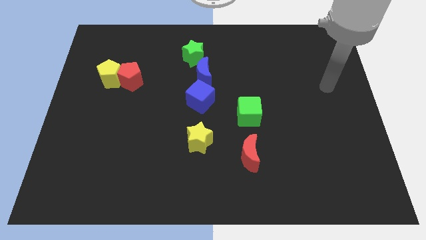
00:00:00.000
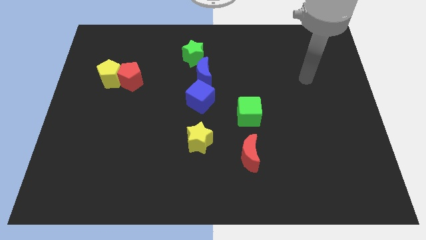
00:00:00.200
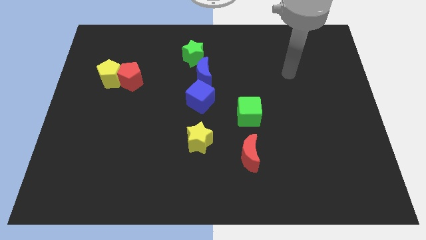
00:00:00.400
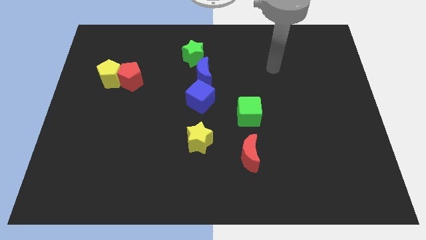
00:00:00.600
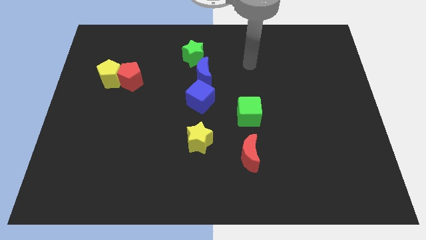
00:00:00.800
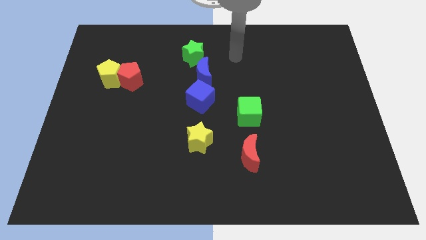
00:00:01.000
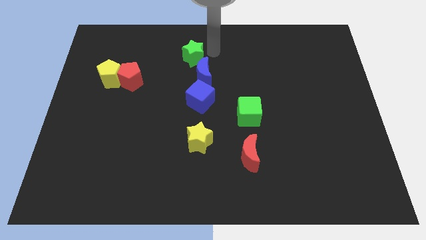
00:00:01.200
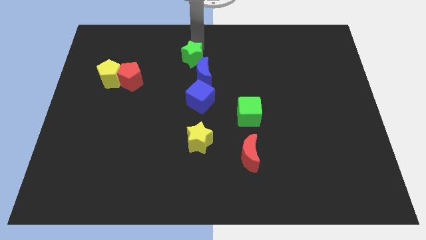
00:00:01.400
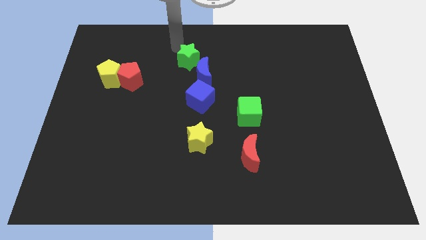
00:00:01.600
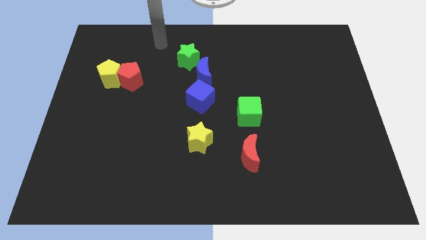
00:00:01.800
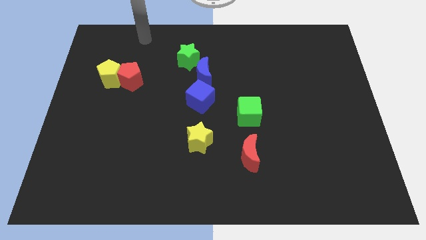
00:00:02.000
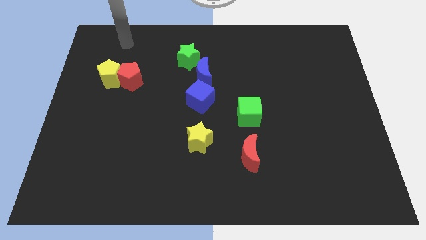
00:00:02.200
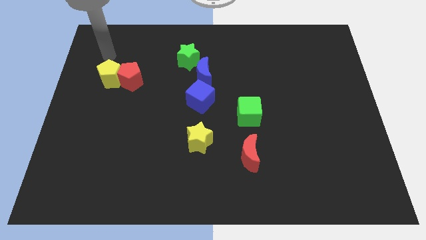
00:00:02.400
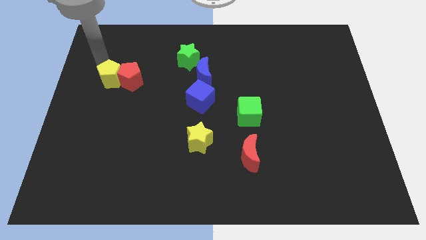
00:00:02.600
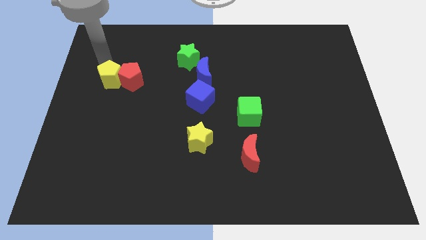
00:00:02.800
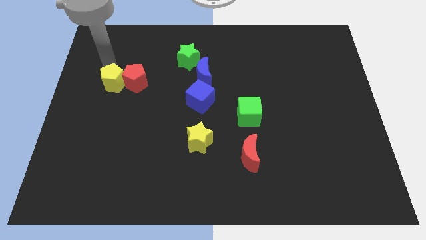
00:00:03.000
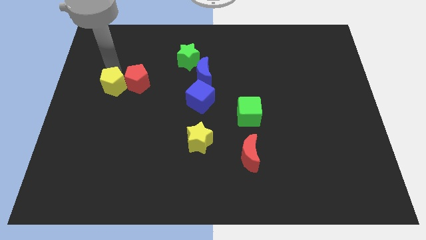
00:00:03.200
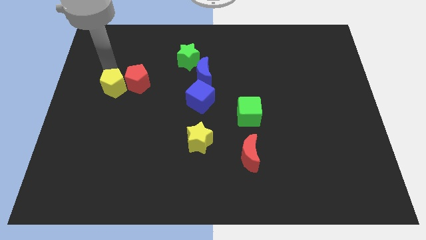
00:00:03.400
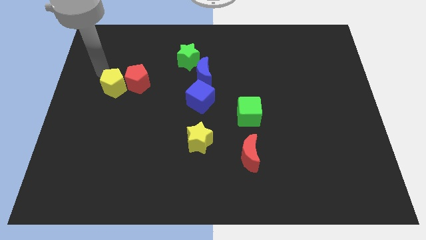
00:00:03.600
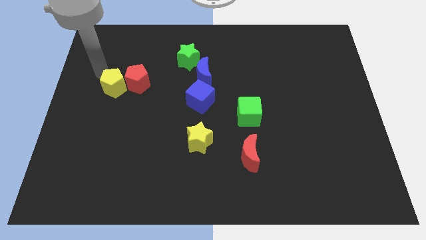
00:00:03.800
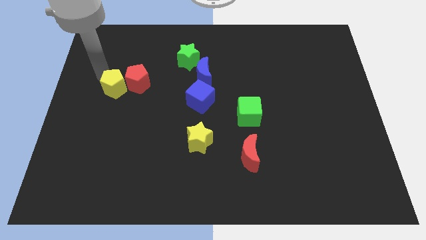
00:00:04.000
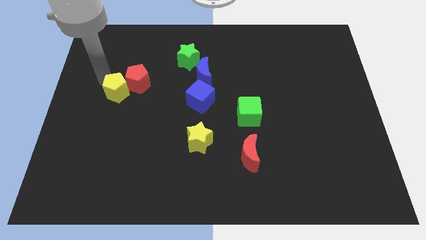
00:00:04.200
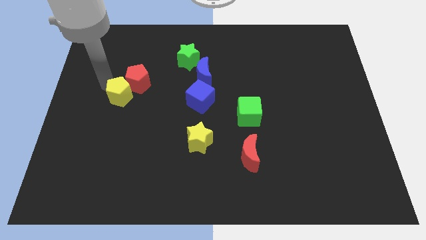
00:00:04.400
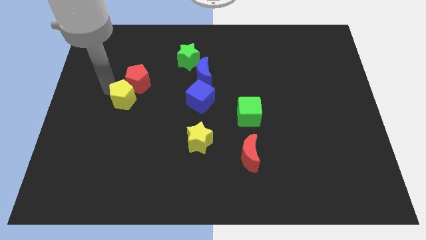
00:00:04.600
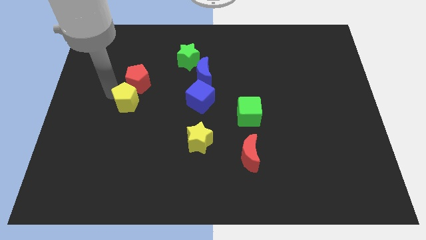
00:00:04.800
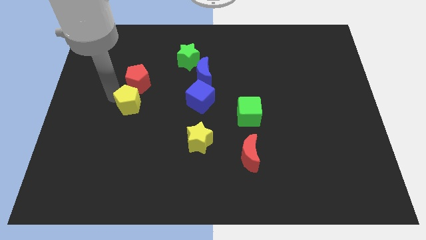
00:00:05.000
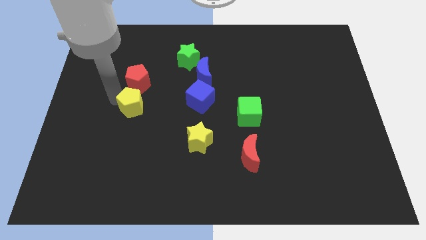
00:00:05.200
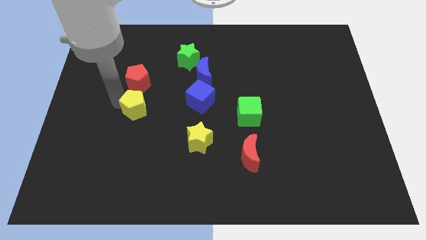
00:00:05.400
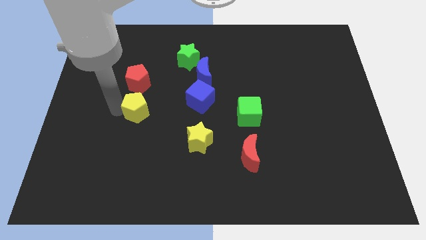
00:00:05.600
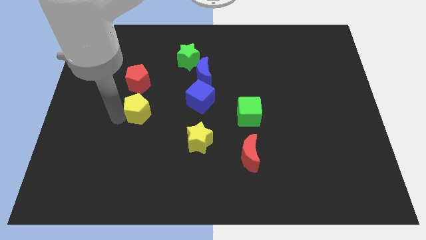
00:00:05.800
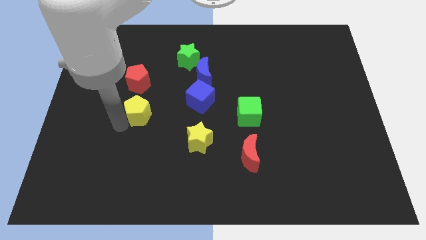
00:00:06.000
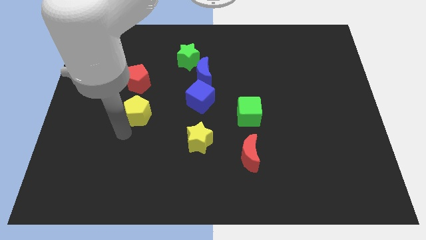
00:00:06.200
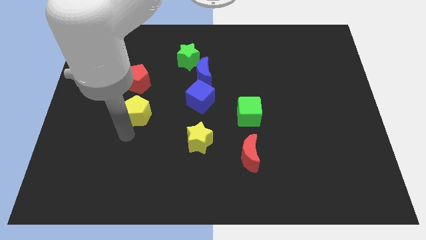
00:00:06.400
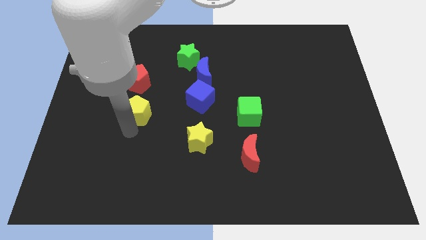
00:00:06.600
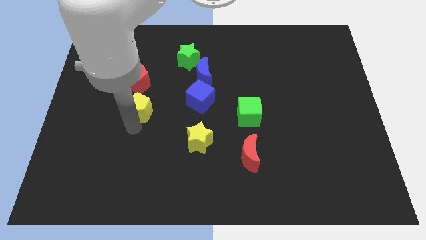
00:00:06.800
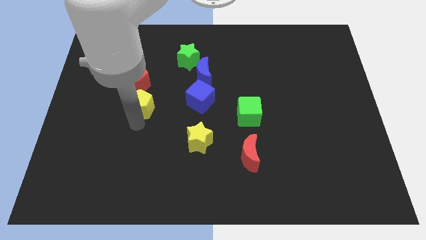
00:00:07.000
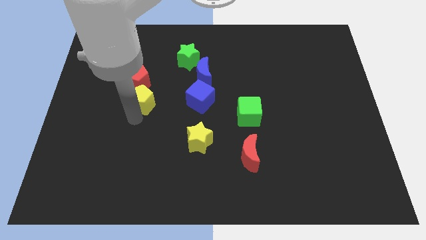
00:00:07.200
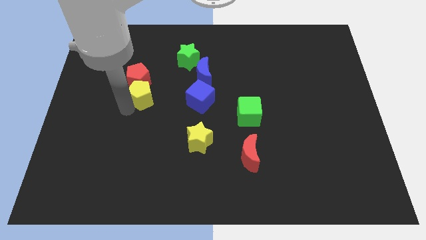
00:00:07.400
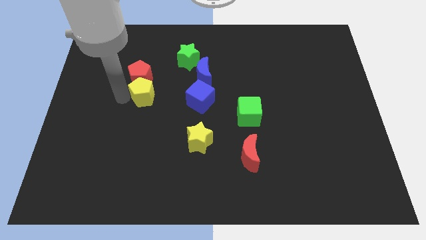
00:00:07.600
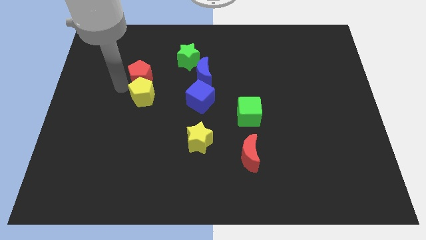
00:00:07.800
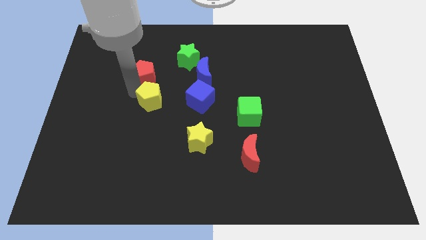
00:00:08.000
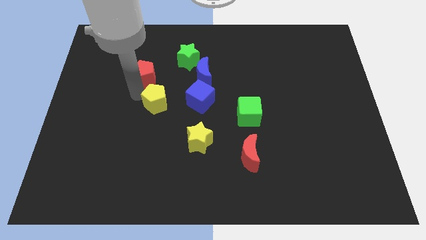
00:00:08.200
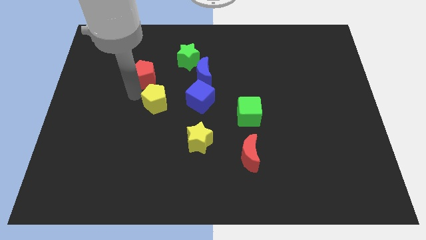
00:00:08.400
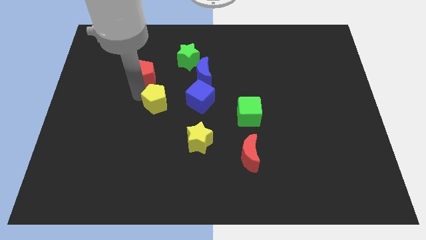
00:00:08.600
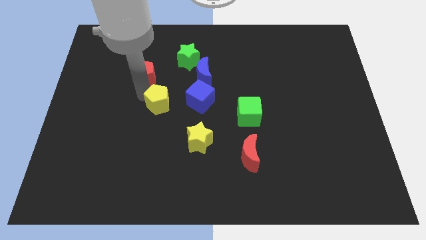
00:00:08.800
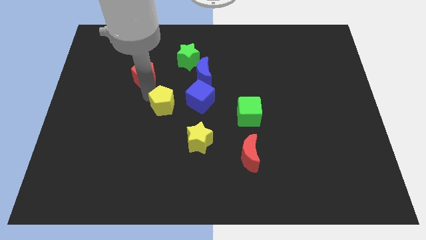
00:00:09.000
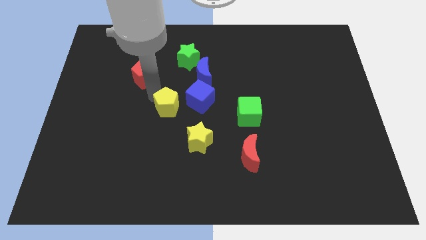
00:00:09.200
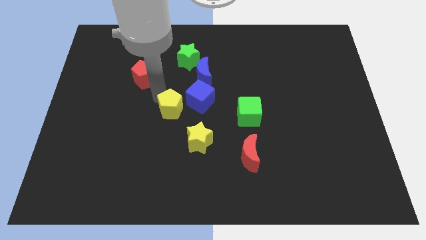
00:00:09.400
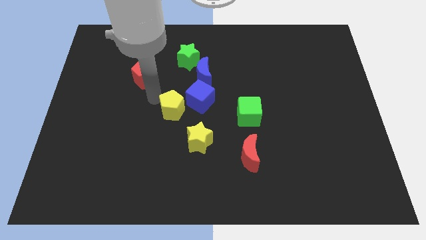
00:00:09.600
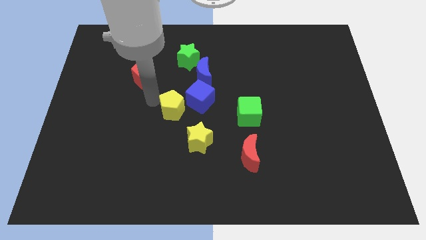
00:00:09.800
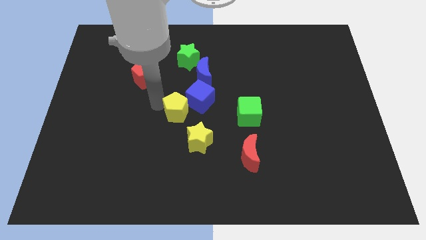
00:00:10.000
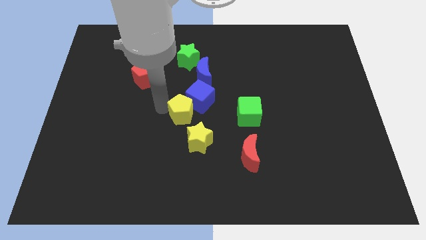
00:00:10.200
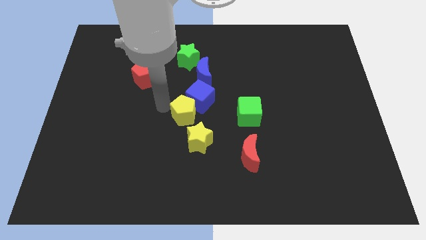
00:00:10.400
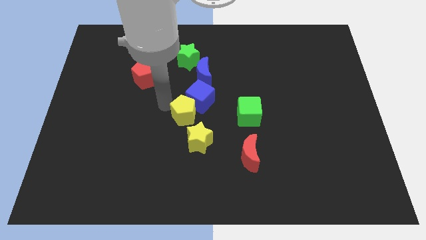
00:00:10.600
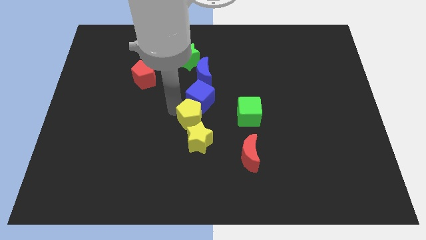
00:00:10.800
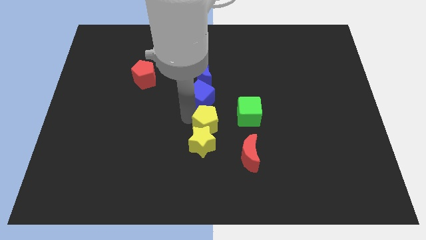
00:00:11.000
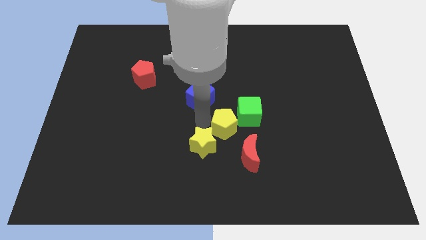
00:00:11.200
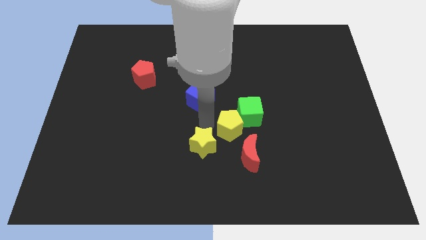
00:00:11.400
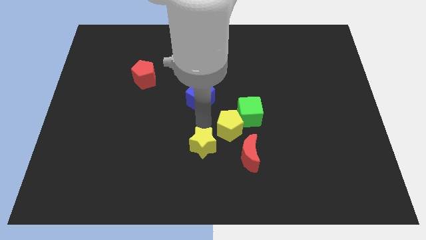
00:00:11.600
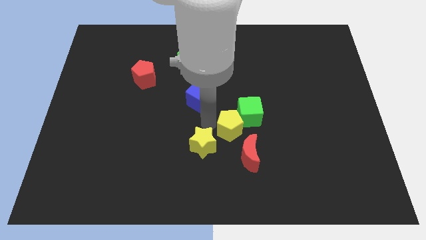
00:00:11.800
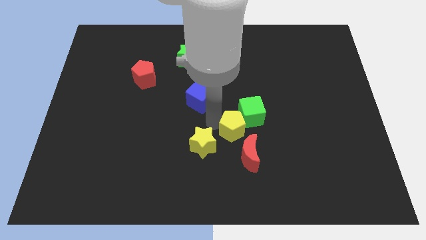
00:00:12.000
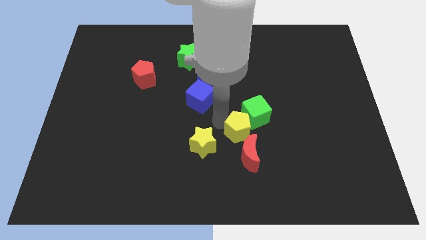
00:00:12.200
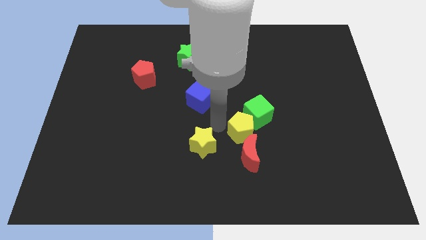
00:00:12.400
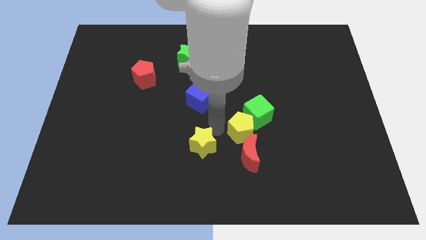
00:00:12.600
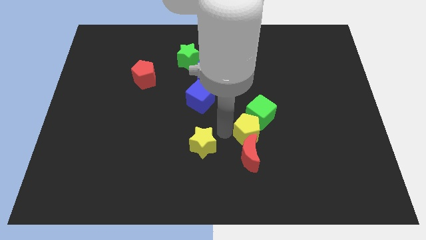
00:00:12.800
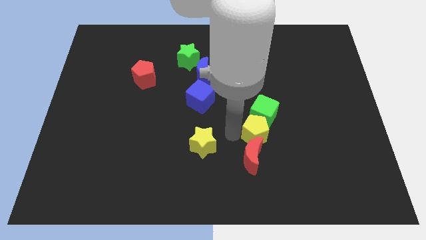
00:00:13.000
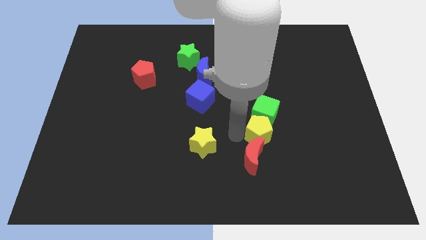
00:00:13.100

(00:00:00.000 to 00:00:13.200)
put the yellow pentagon diagonally down and to the right of the green cube
